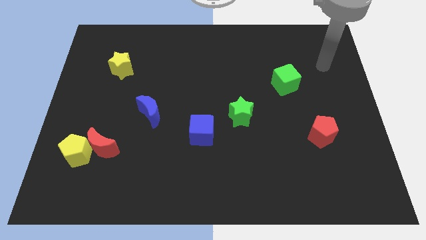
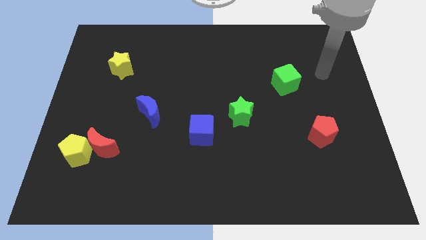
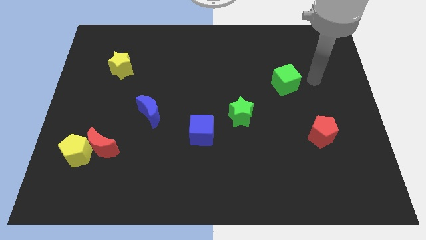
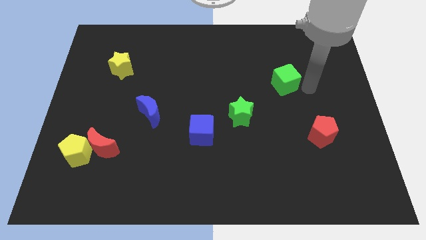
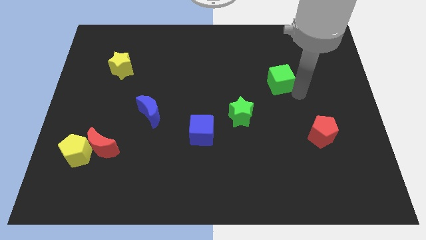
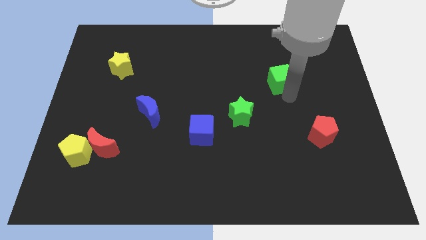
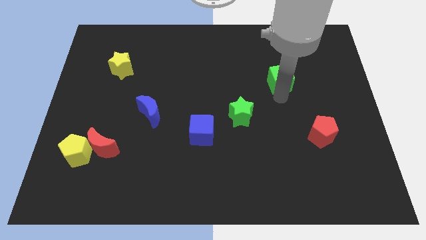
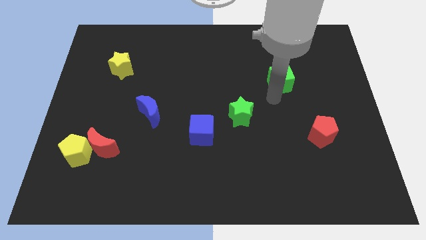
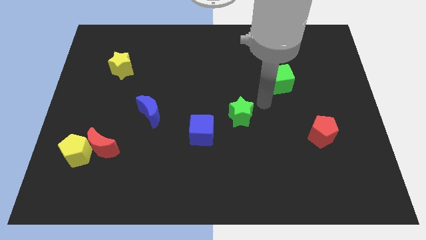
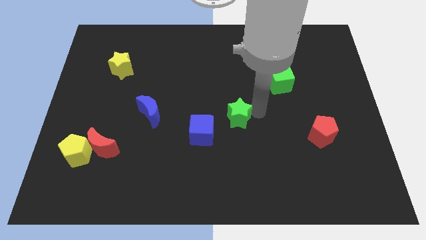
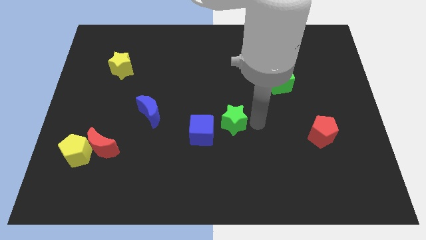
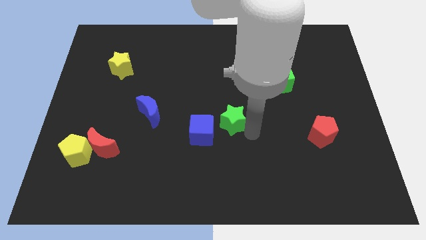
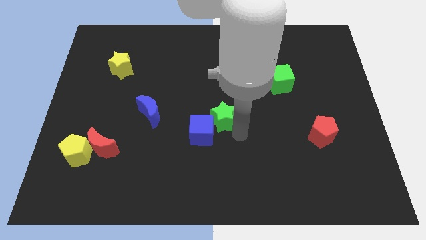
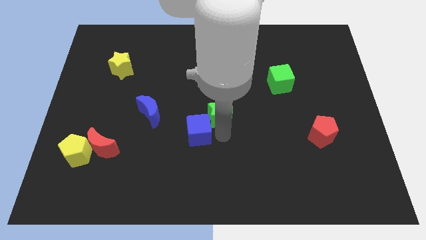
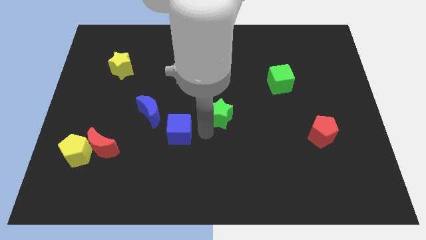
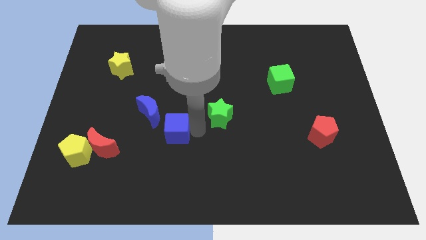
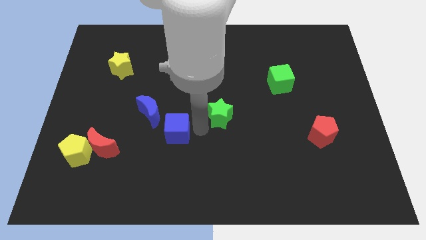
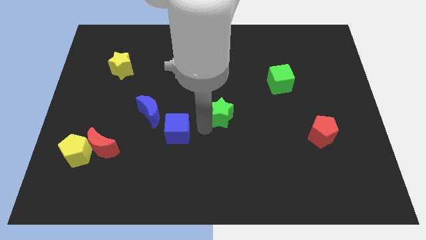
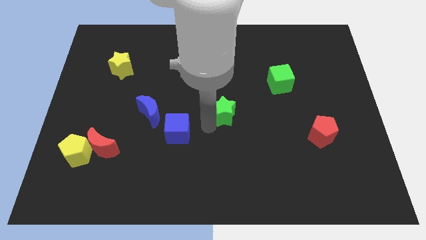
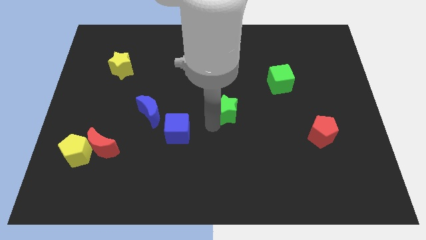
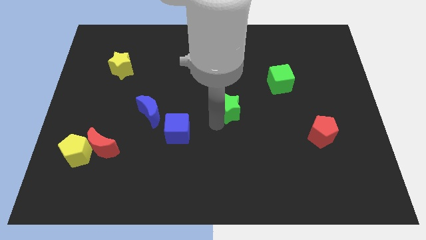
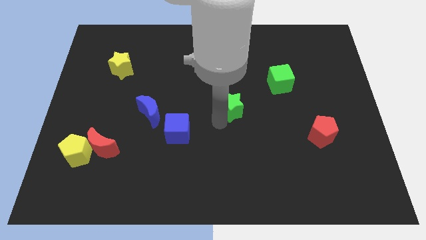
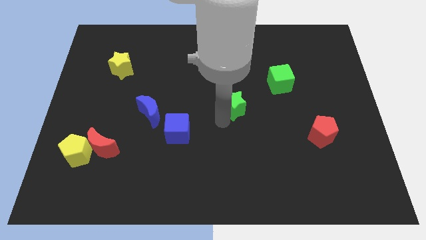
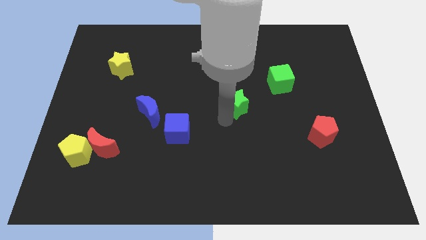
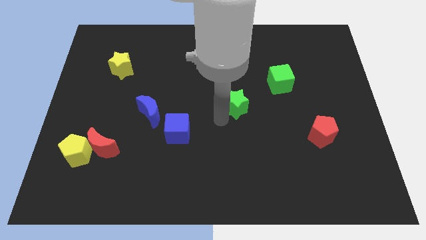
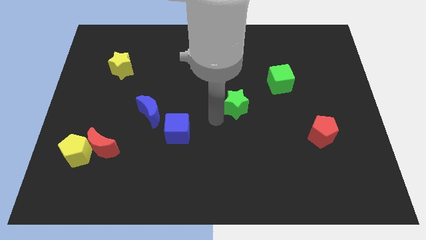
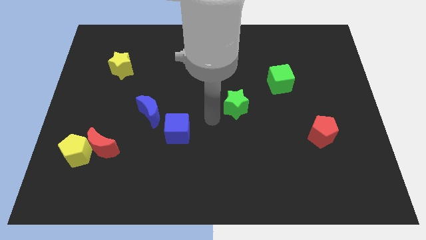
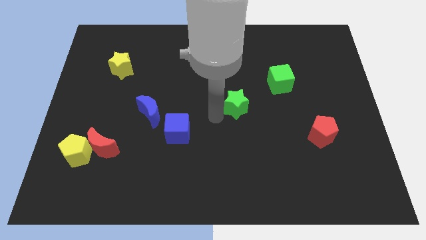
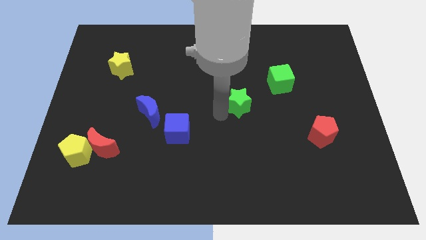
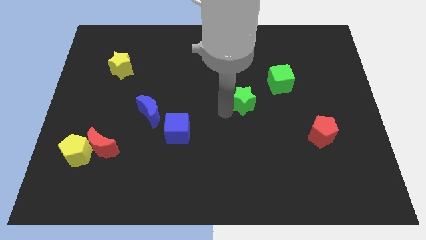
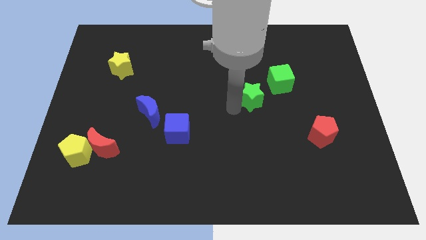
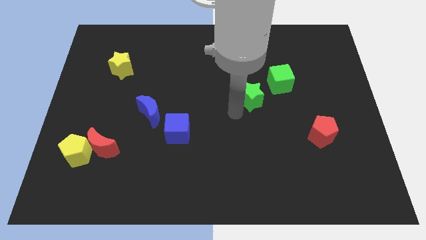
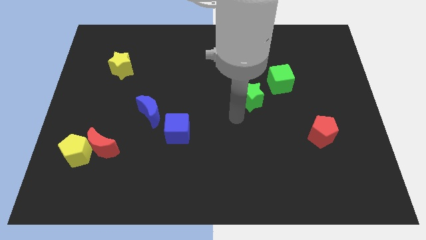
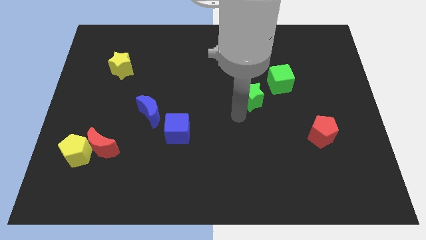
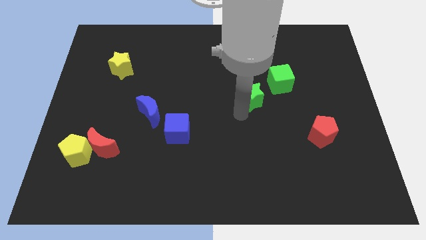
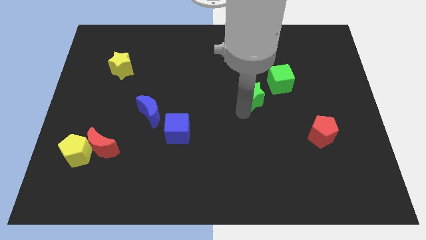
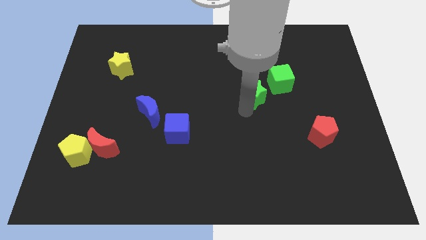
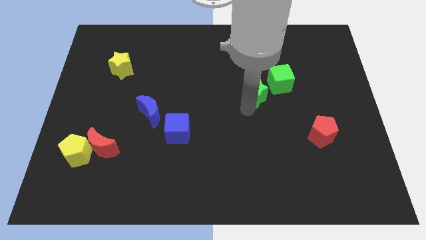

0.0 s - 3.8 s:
move the green star slightly up and to the right diagonally

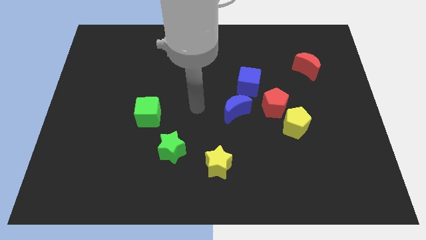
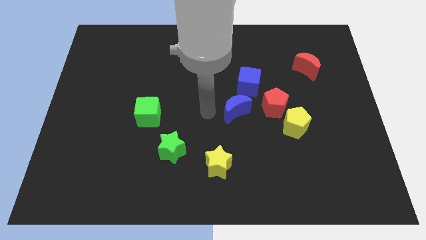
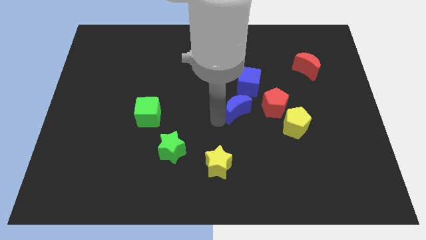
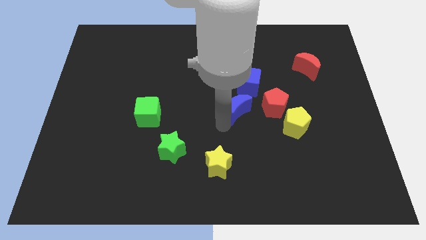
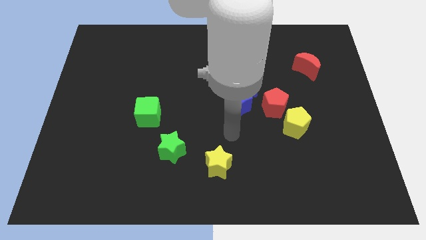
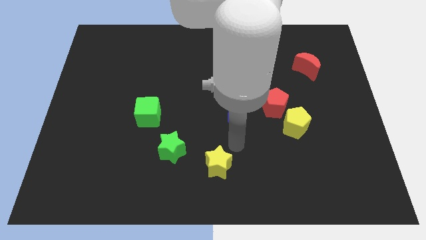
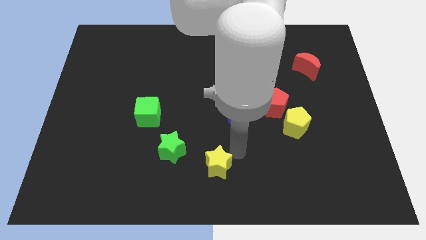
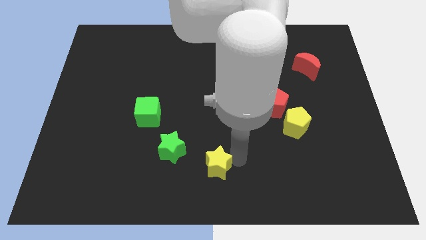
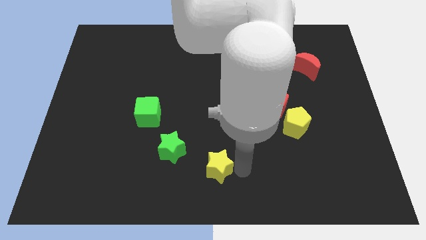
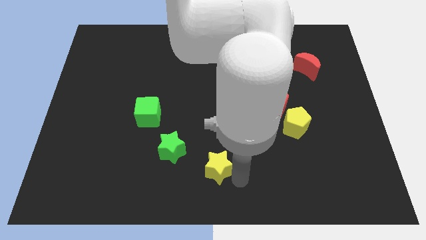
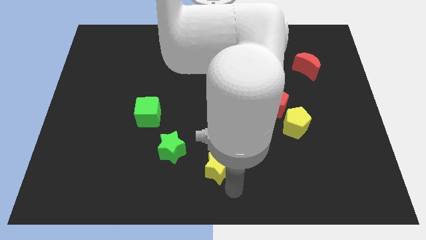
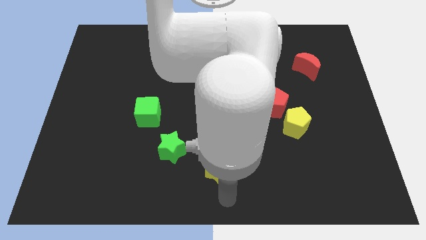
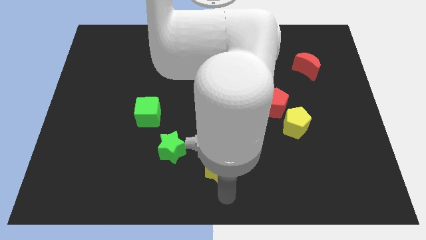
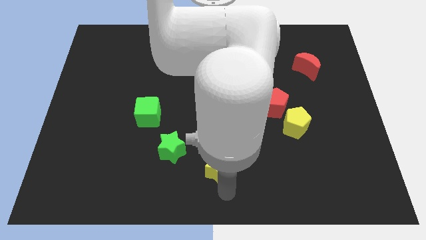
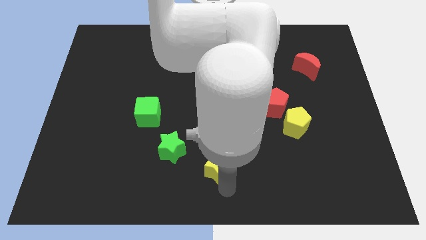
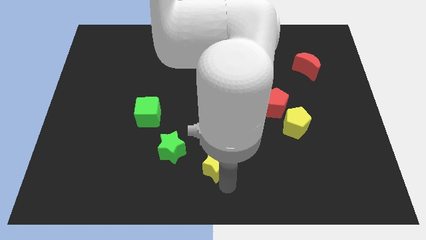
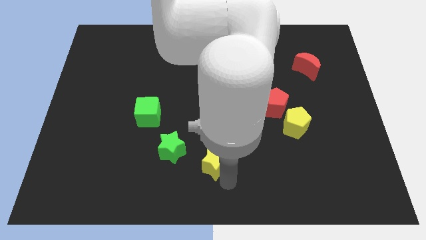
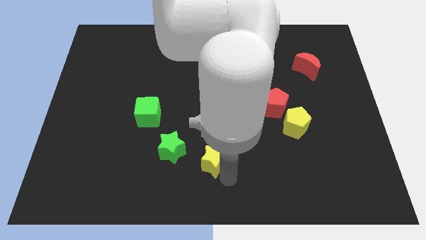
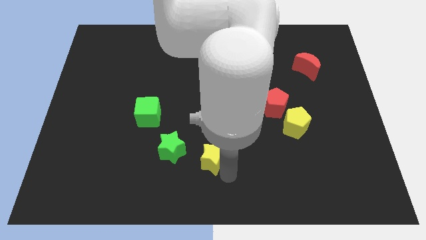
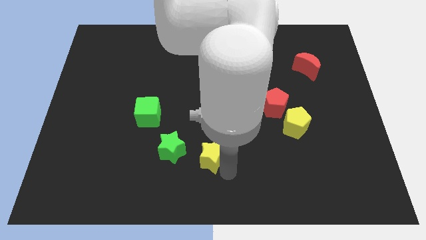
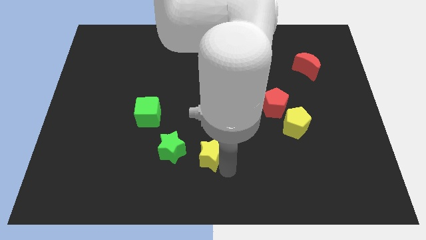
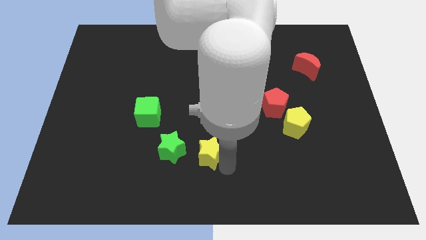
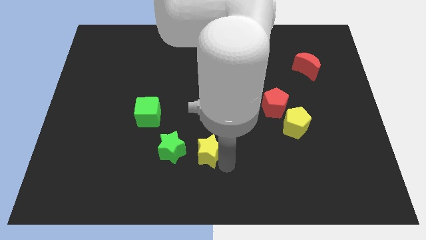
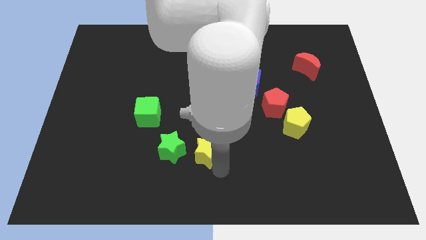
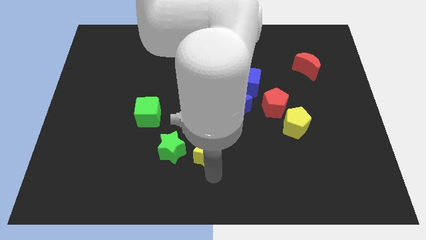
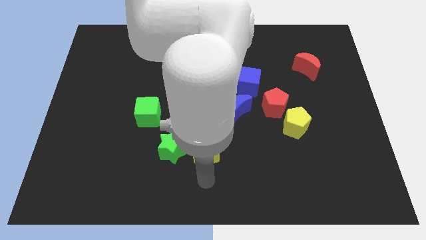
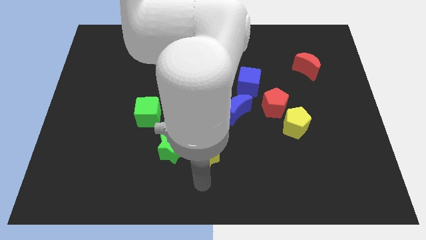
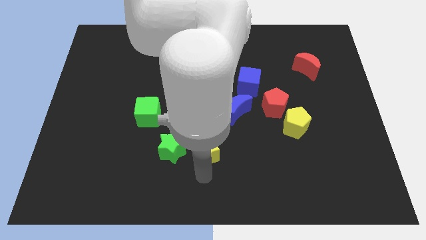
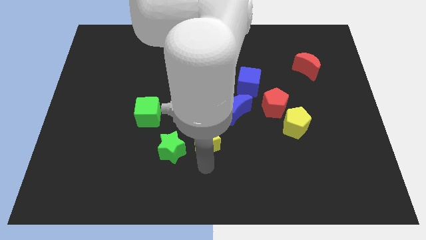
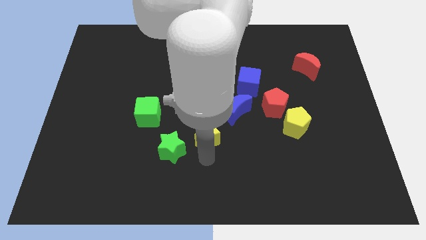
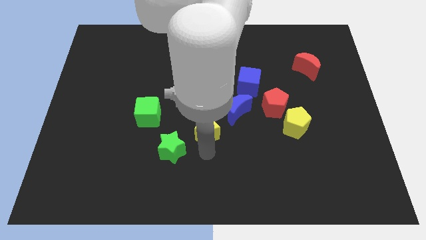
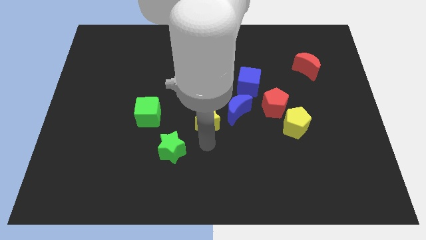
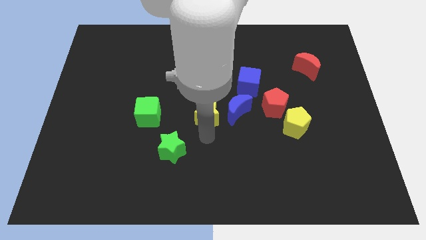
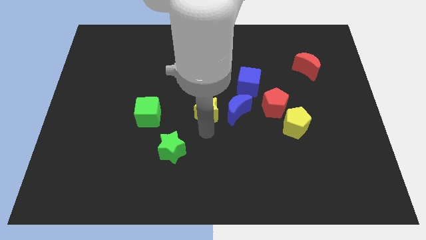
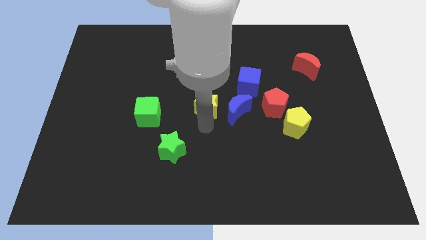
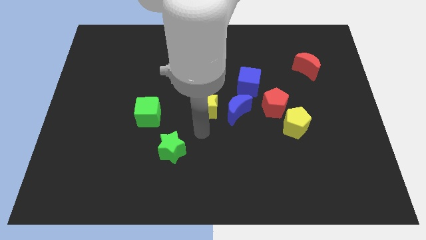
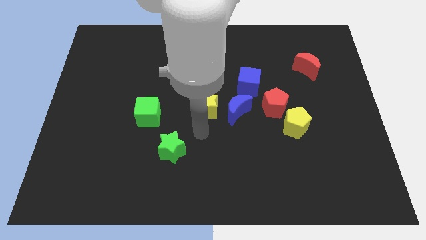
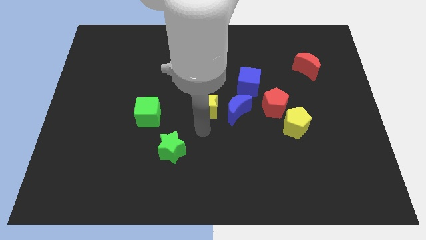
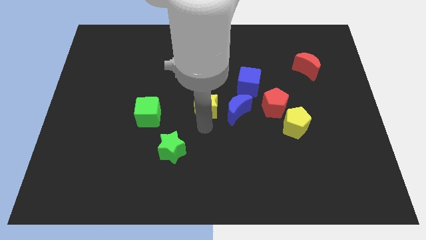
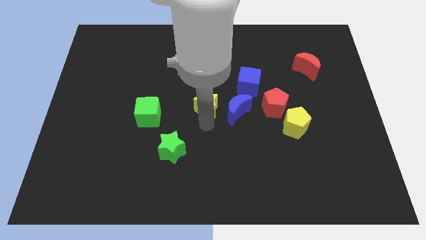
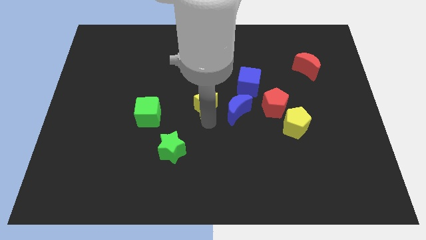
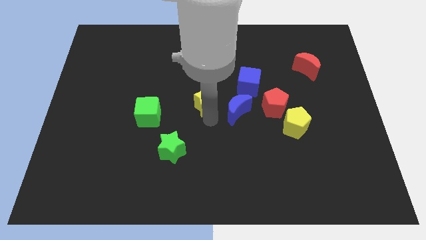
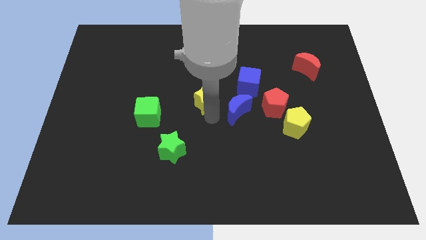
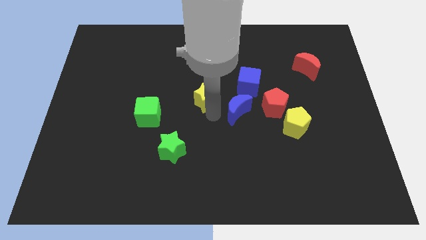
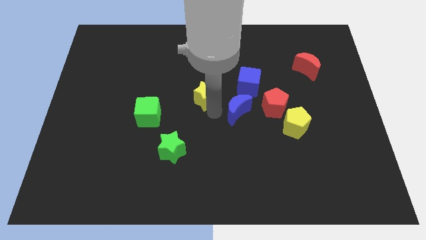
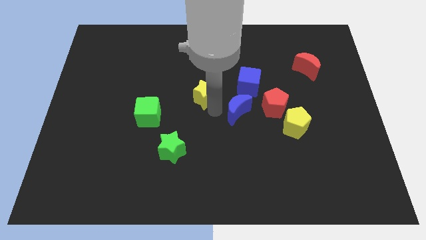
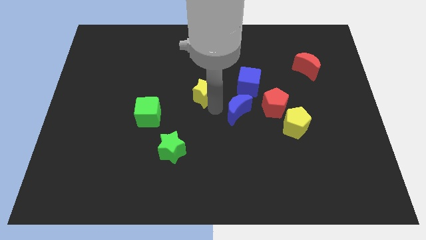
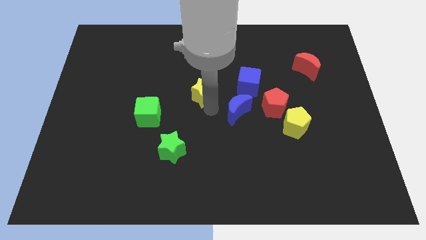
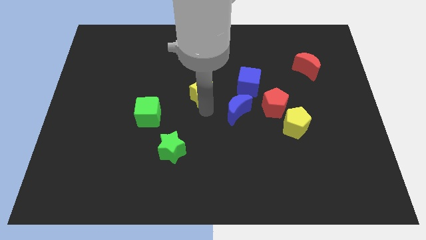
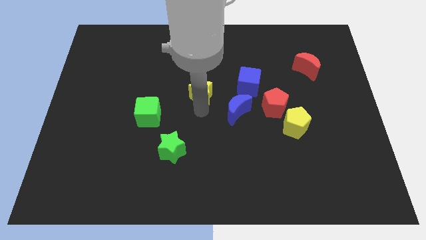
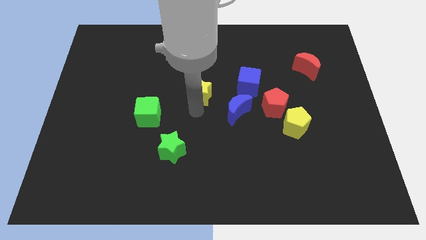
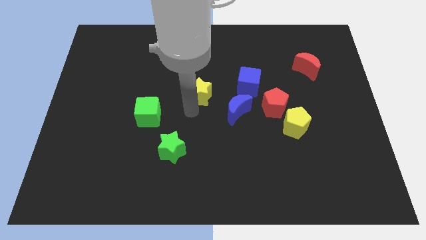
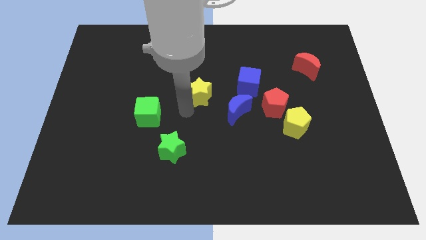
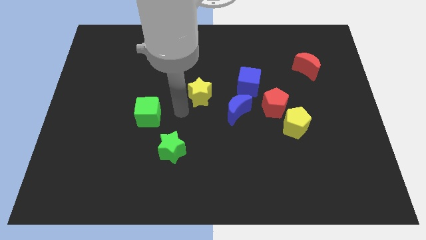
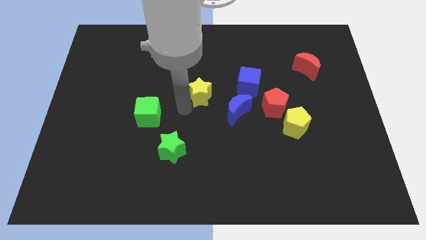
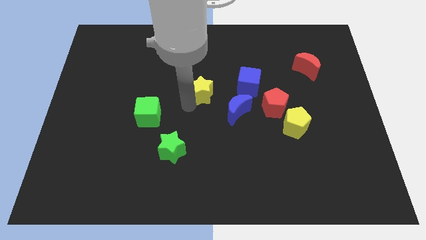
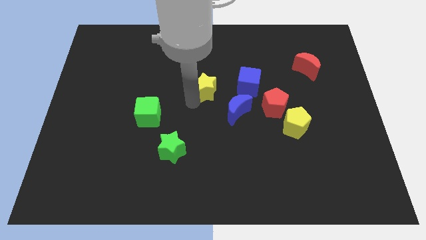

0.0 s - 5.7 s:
move the yellow star upwards
